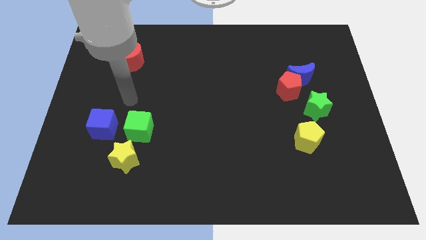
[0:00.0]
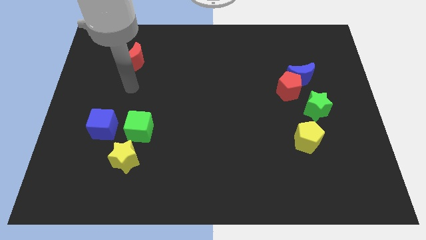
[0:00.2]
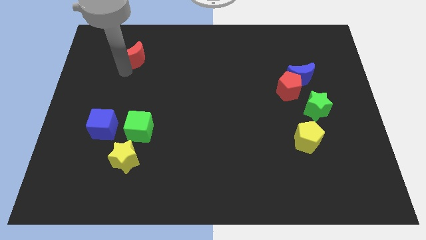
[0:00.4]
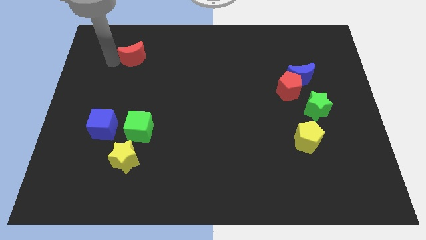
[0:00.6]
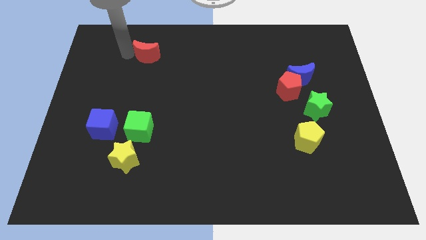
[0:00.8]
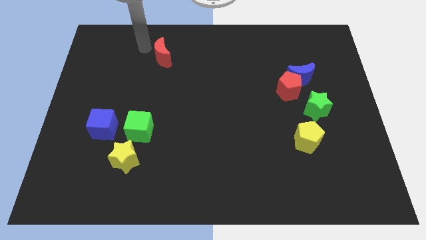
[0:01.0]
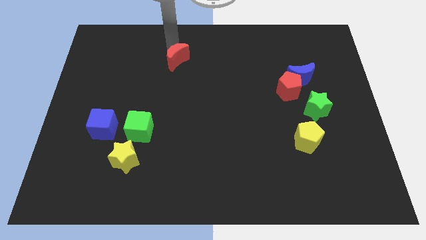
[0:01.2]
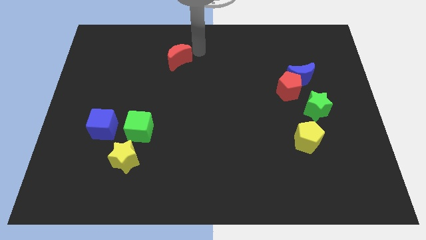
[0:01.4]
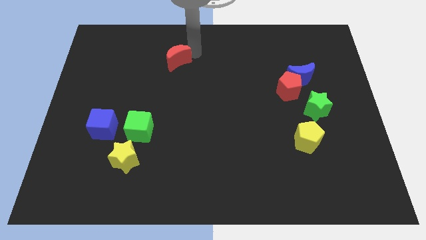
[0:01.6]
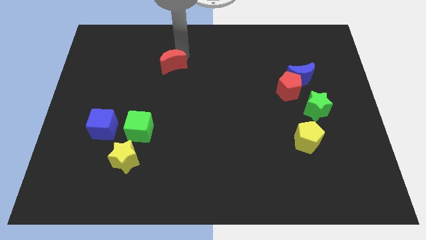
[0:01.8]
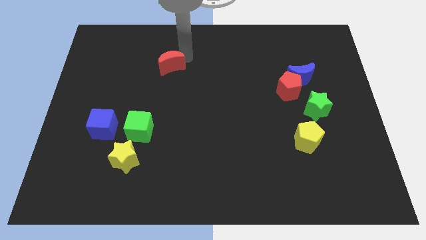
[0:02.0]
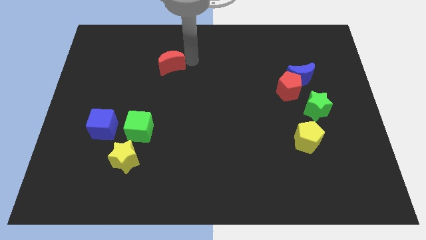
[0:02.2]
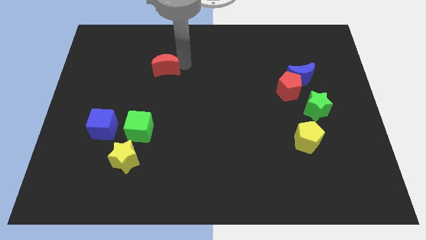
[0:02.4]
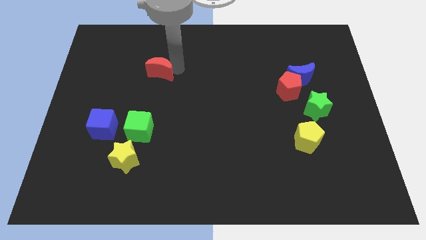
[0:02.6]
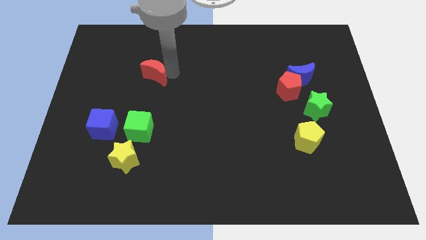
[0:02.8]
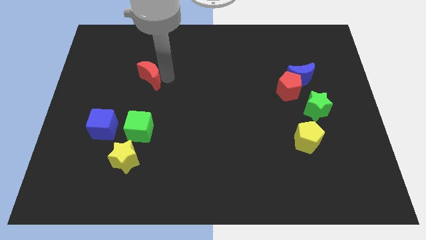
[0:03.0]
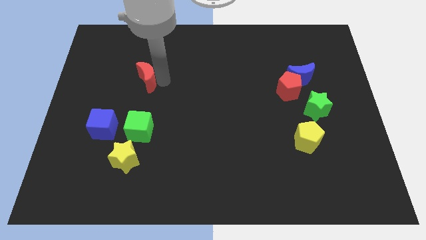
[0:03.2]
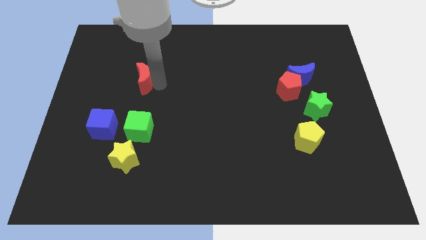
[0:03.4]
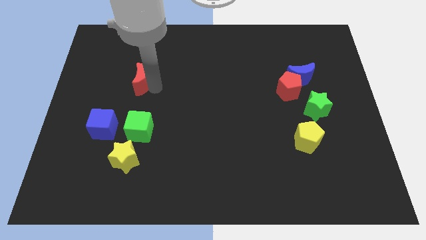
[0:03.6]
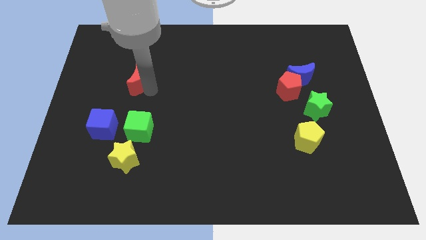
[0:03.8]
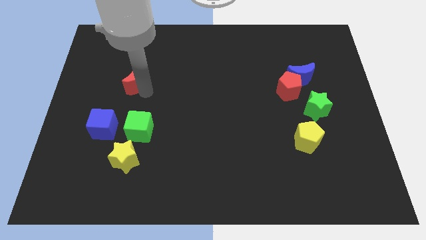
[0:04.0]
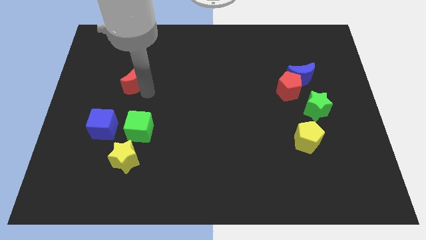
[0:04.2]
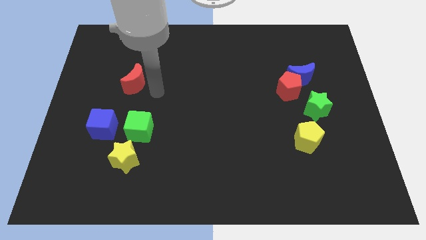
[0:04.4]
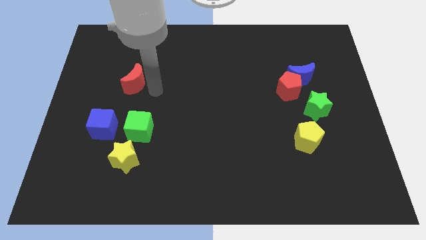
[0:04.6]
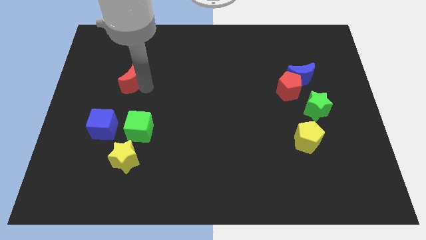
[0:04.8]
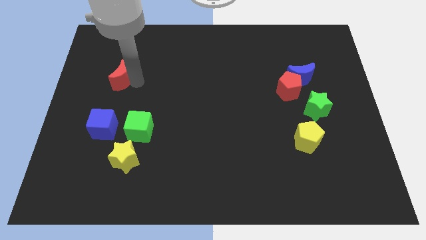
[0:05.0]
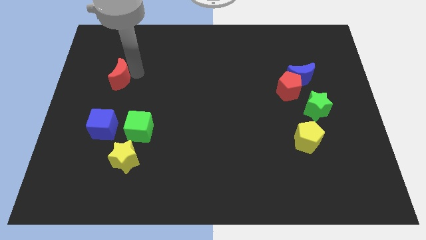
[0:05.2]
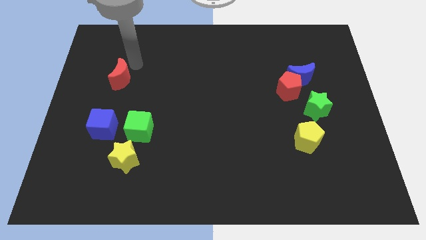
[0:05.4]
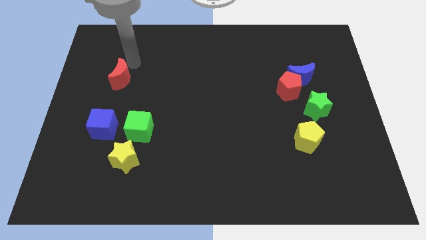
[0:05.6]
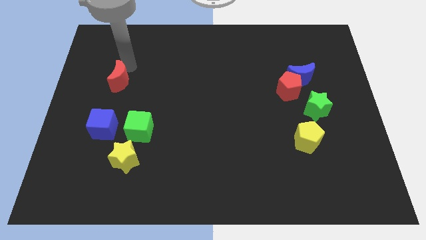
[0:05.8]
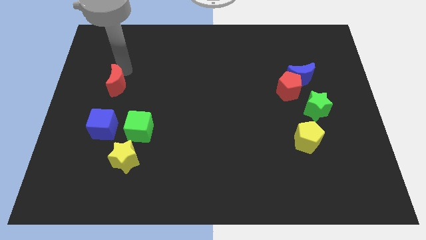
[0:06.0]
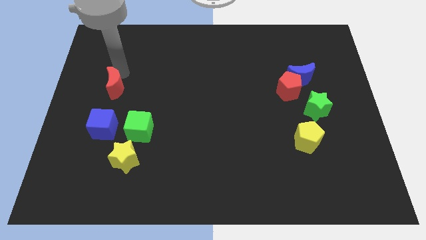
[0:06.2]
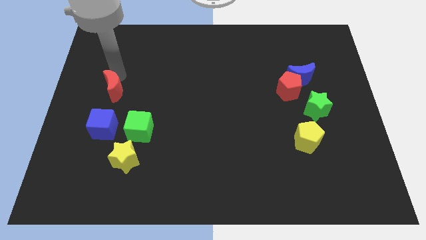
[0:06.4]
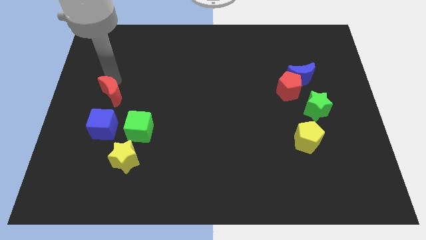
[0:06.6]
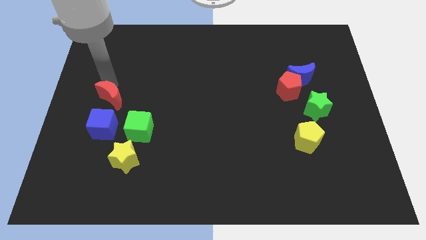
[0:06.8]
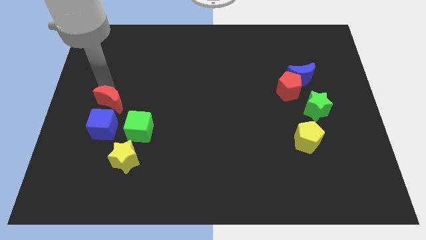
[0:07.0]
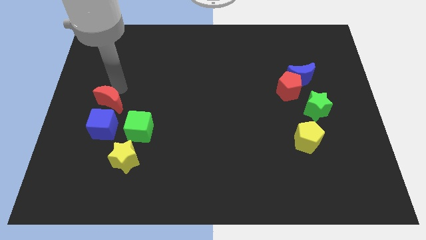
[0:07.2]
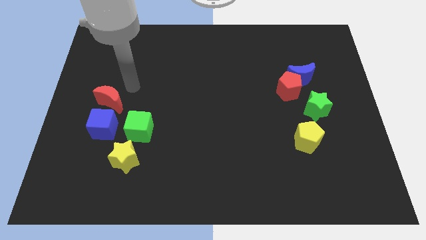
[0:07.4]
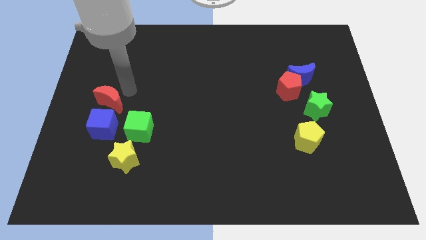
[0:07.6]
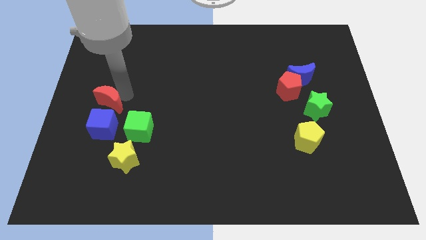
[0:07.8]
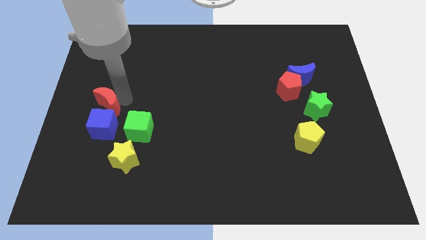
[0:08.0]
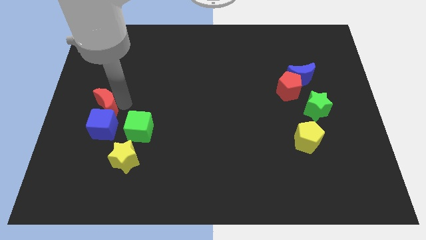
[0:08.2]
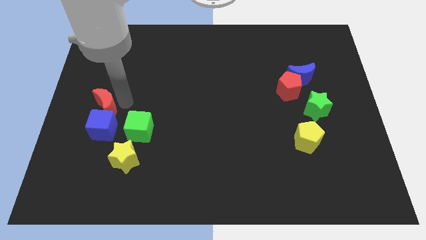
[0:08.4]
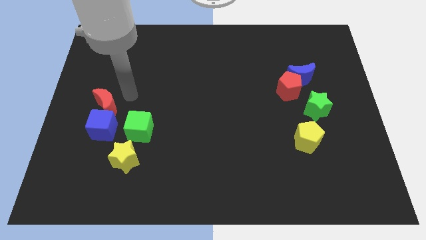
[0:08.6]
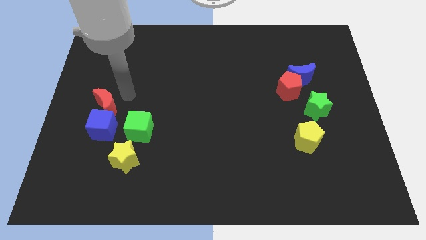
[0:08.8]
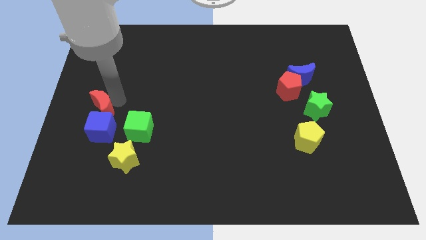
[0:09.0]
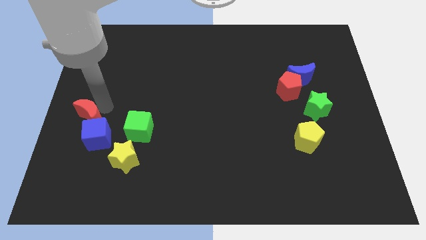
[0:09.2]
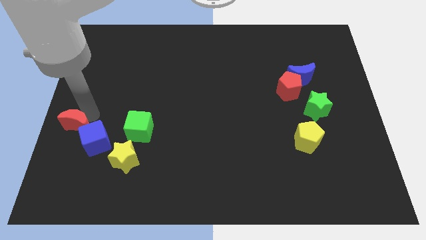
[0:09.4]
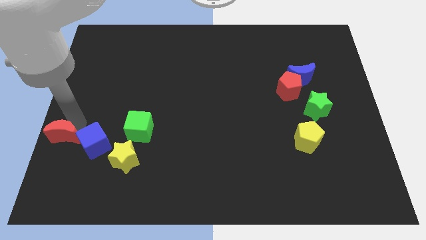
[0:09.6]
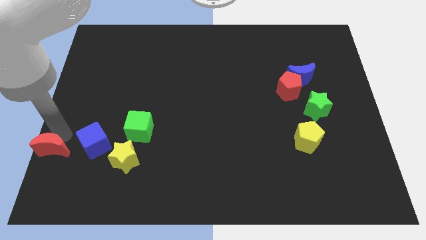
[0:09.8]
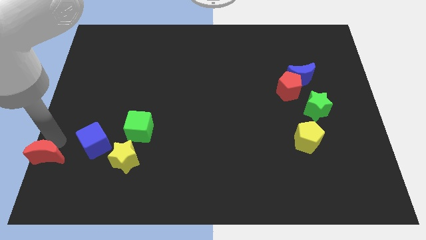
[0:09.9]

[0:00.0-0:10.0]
slide the red moon to the bottom left
